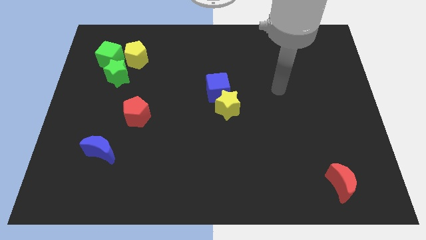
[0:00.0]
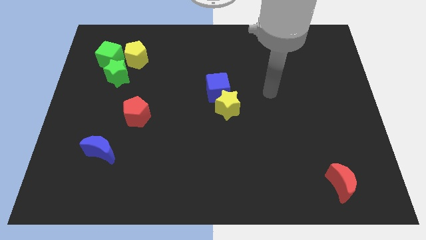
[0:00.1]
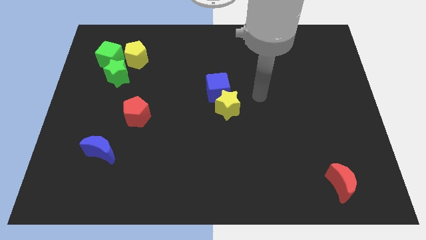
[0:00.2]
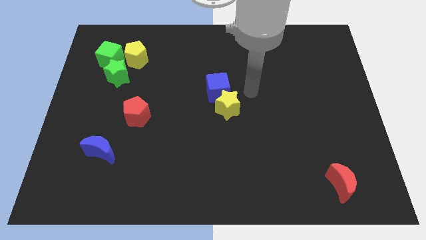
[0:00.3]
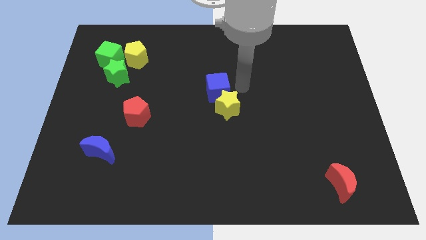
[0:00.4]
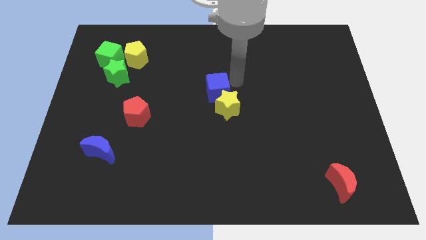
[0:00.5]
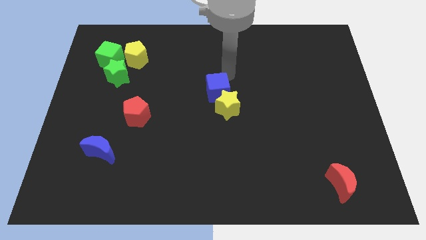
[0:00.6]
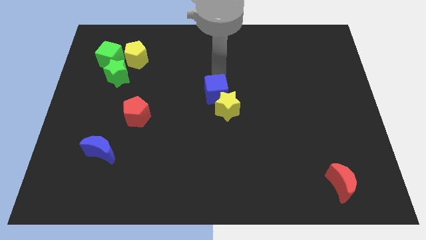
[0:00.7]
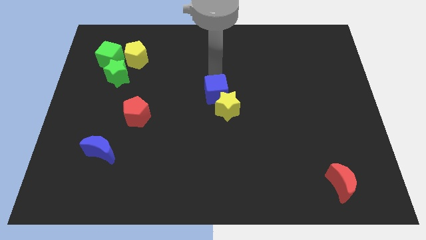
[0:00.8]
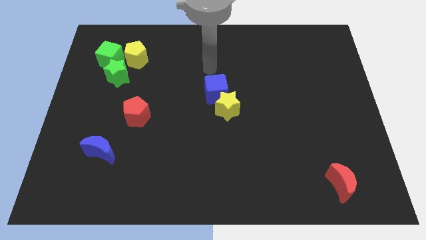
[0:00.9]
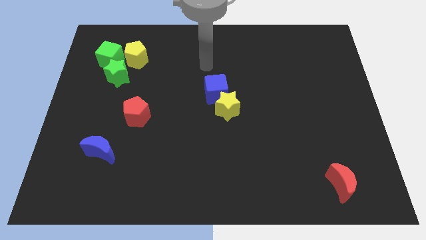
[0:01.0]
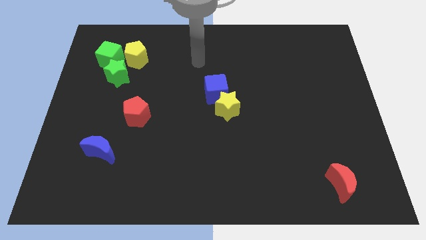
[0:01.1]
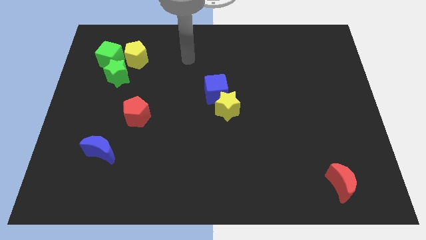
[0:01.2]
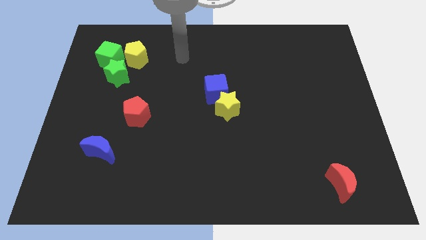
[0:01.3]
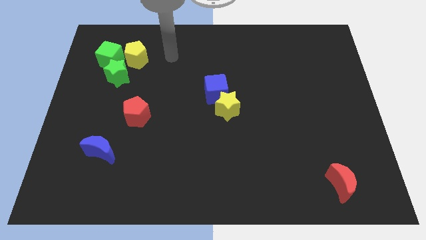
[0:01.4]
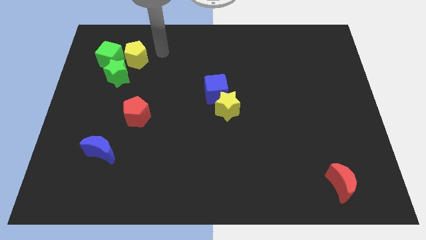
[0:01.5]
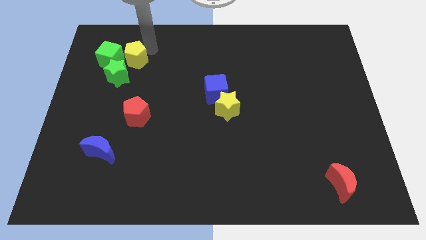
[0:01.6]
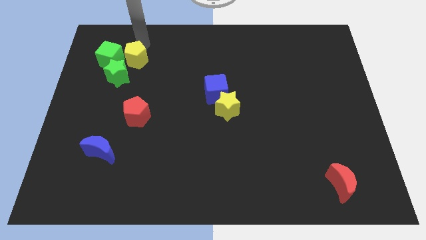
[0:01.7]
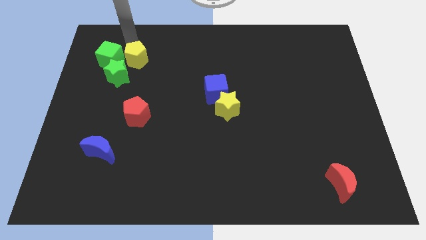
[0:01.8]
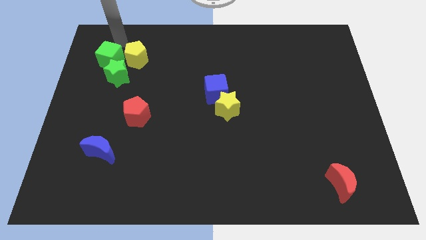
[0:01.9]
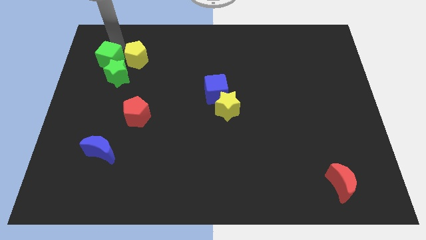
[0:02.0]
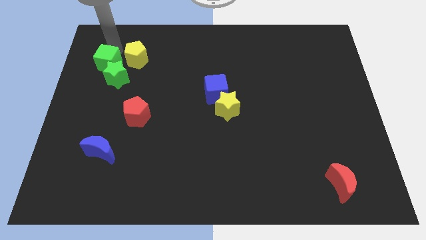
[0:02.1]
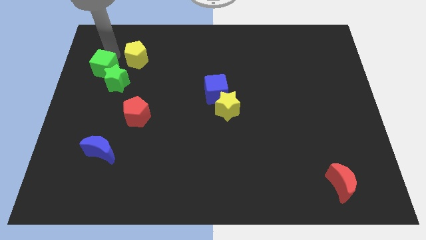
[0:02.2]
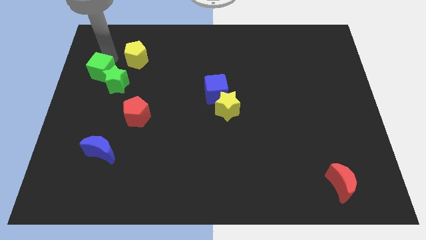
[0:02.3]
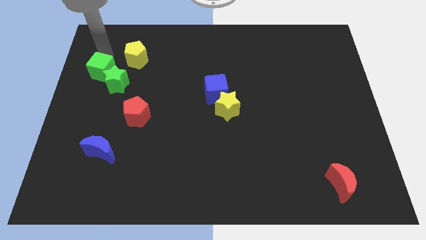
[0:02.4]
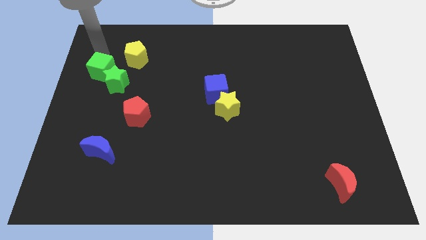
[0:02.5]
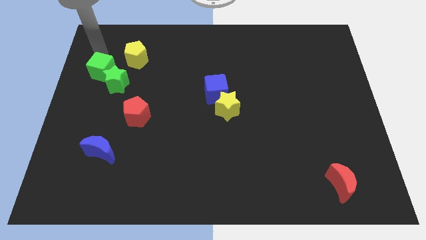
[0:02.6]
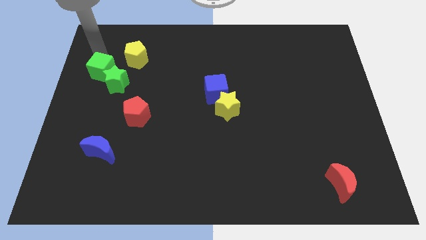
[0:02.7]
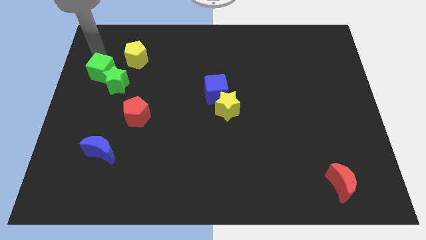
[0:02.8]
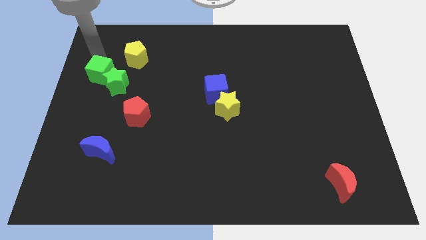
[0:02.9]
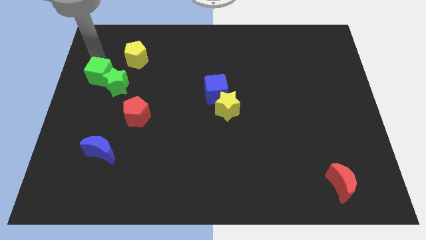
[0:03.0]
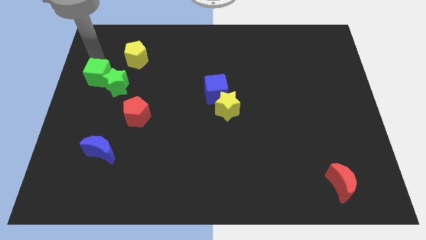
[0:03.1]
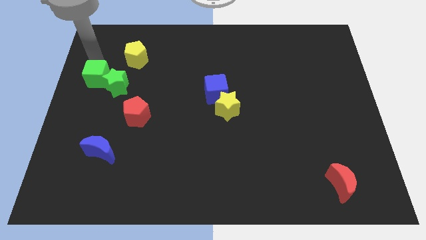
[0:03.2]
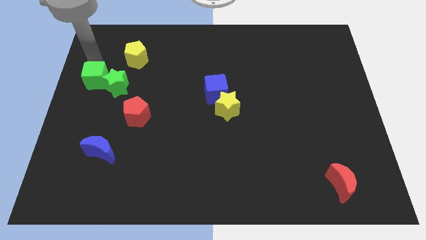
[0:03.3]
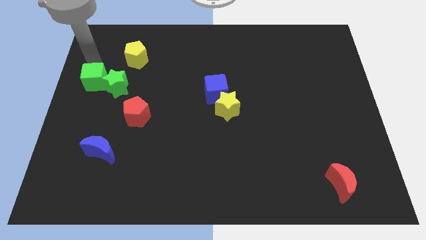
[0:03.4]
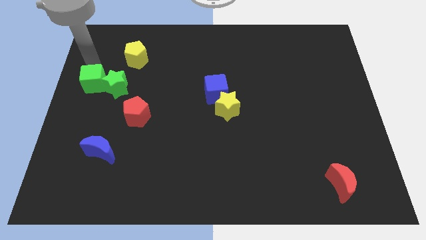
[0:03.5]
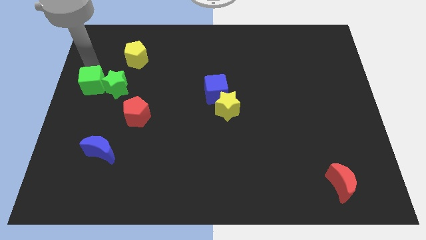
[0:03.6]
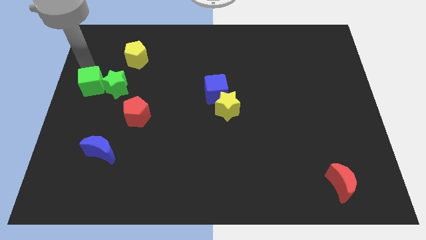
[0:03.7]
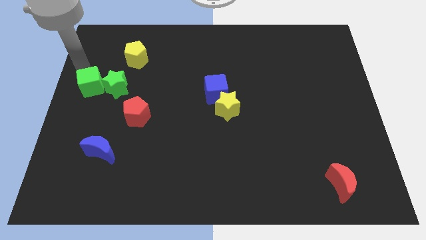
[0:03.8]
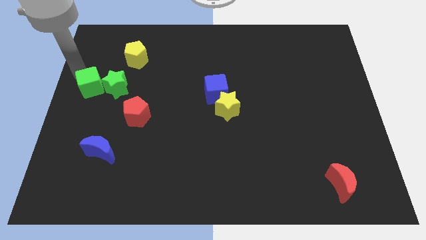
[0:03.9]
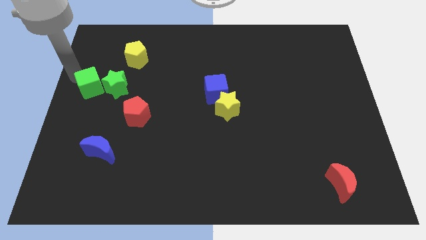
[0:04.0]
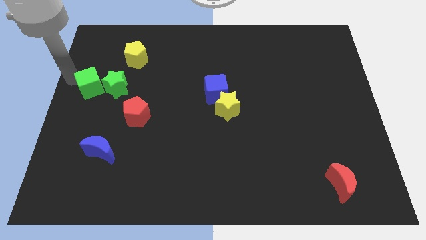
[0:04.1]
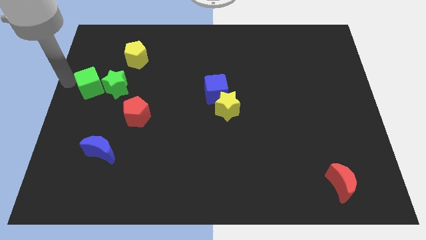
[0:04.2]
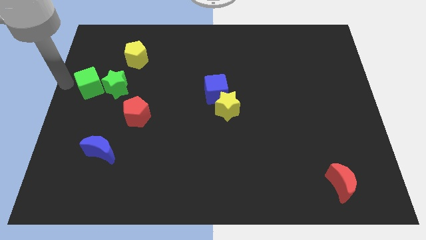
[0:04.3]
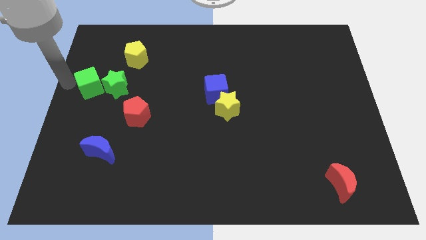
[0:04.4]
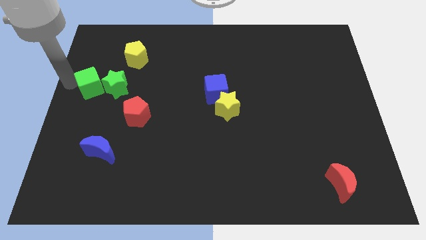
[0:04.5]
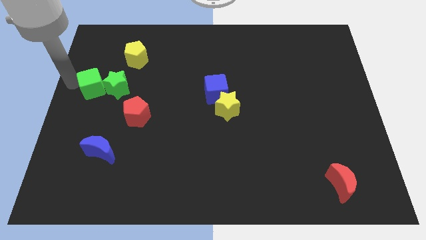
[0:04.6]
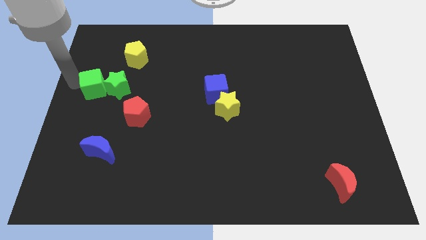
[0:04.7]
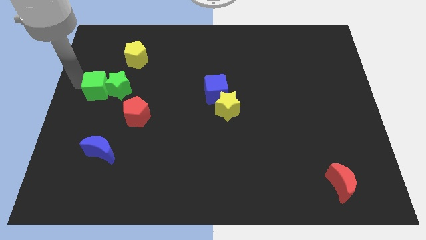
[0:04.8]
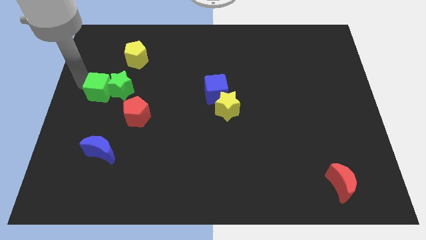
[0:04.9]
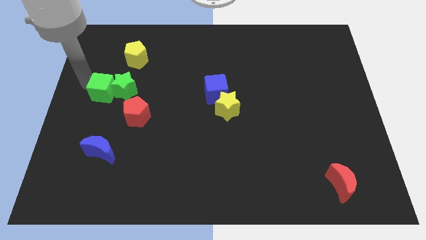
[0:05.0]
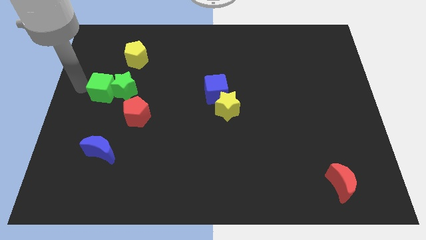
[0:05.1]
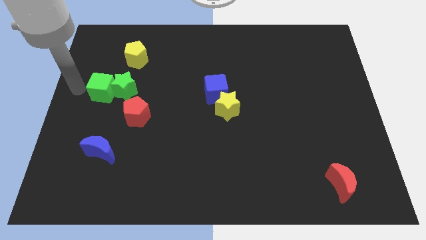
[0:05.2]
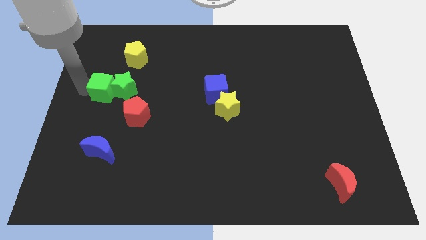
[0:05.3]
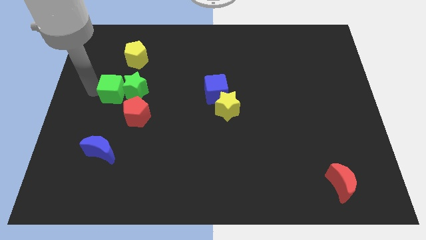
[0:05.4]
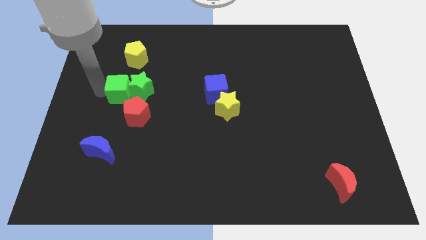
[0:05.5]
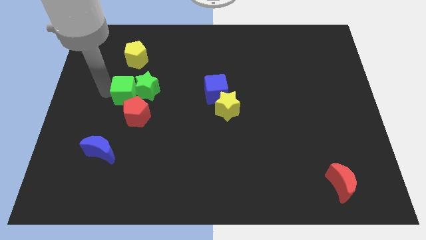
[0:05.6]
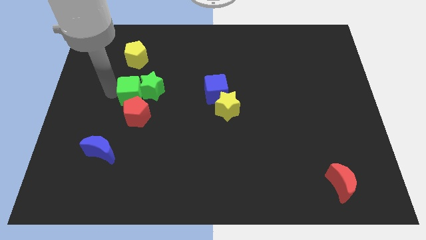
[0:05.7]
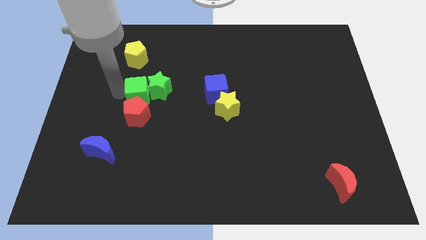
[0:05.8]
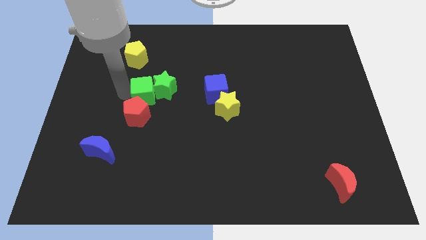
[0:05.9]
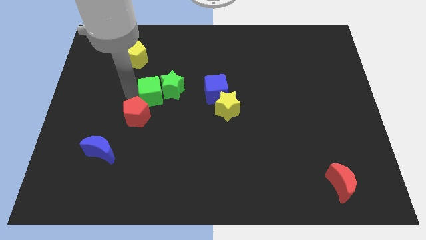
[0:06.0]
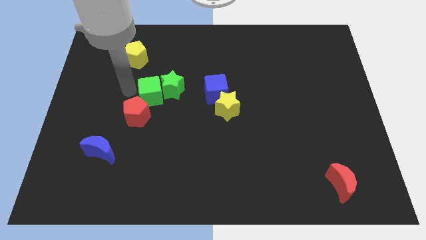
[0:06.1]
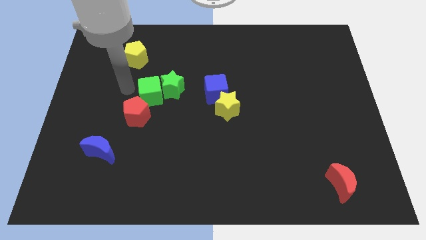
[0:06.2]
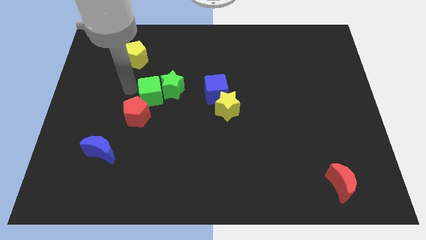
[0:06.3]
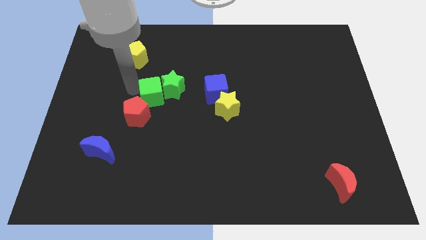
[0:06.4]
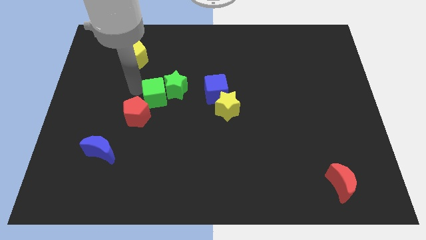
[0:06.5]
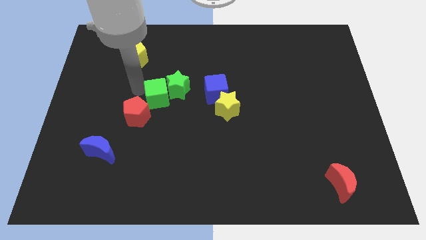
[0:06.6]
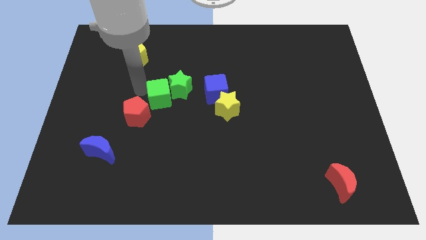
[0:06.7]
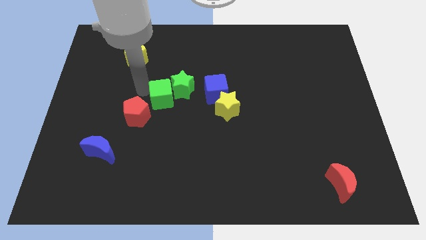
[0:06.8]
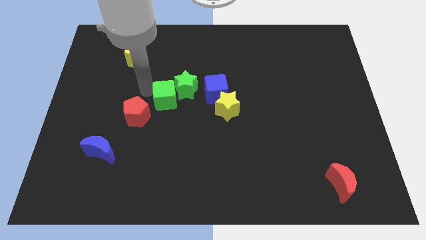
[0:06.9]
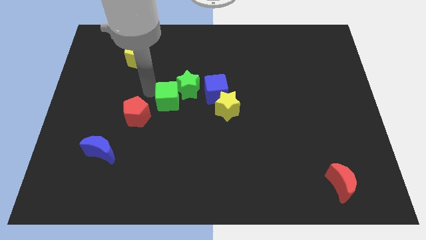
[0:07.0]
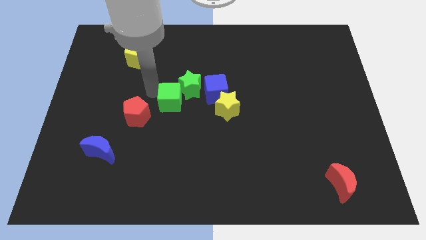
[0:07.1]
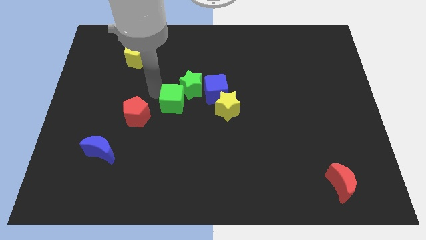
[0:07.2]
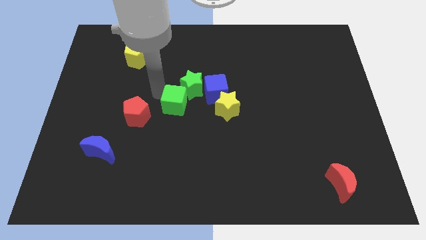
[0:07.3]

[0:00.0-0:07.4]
put the green cube to the bottom left side of the blue cube
